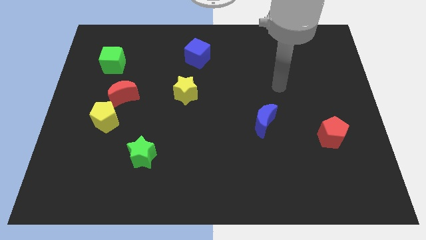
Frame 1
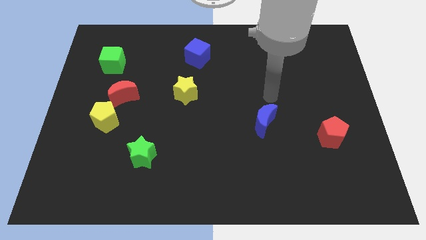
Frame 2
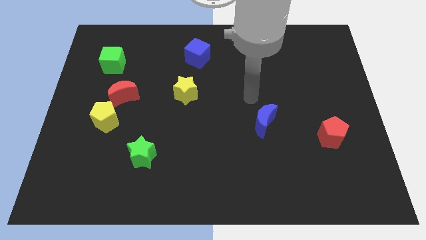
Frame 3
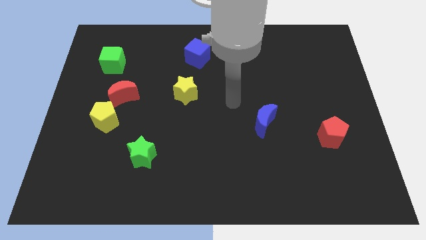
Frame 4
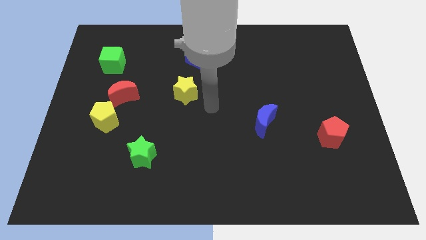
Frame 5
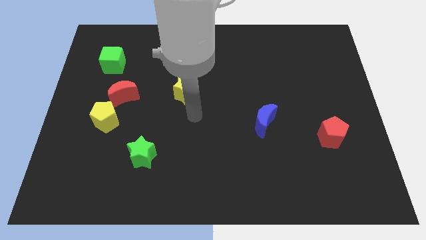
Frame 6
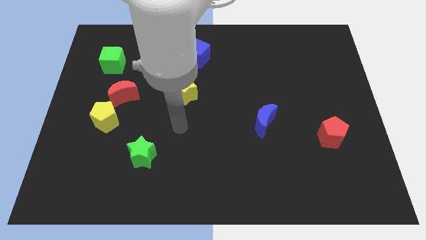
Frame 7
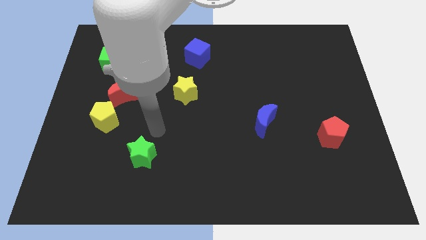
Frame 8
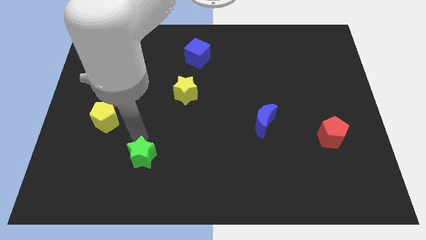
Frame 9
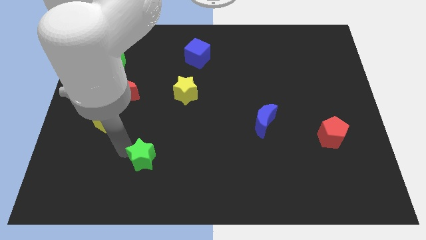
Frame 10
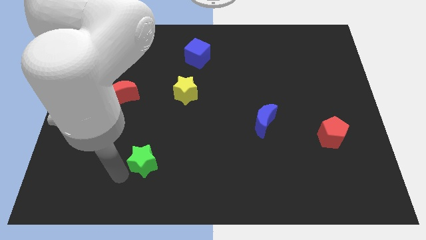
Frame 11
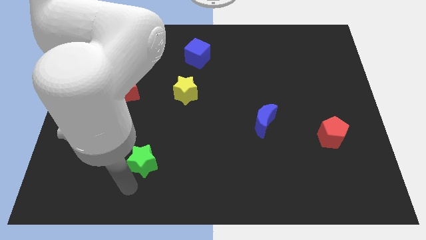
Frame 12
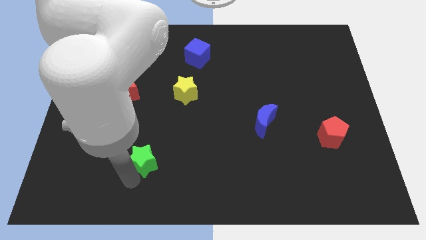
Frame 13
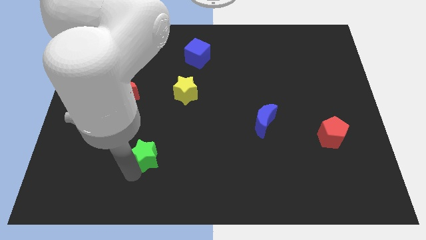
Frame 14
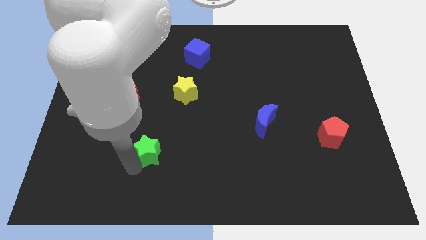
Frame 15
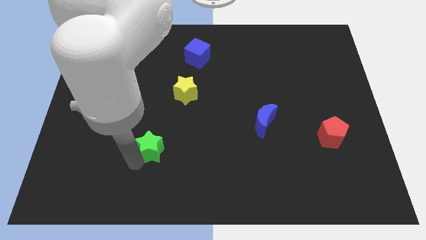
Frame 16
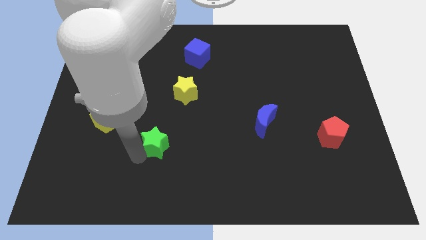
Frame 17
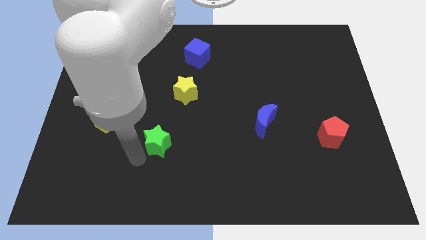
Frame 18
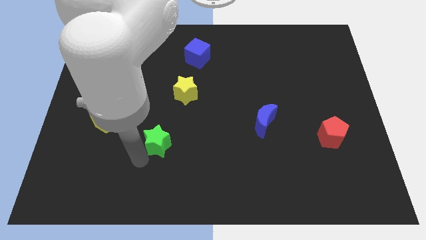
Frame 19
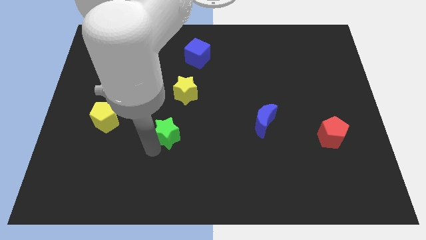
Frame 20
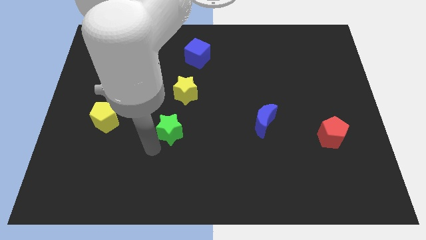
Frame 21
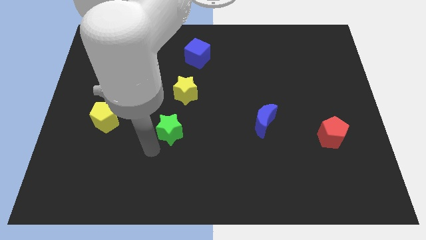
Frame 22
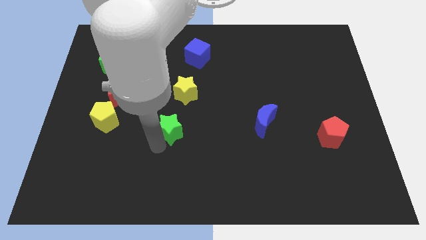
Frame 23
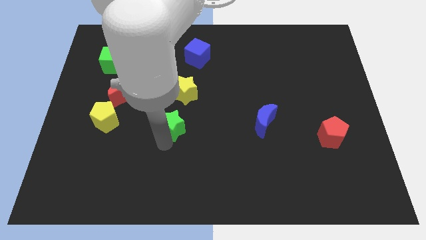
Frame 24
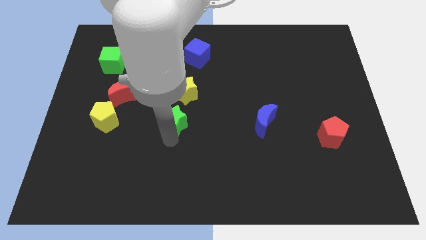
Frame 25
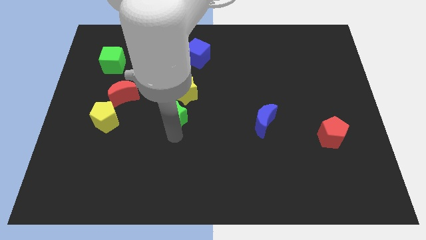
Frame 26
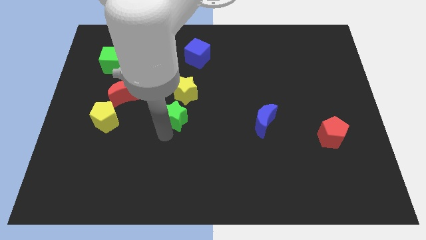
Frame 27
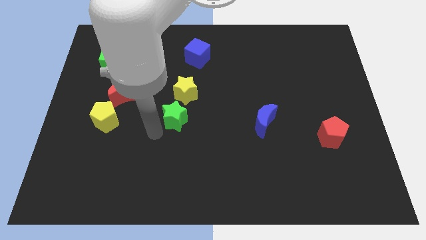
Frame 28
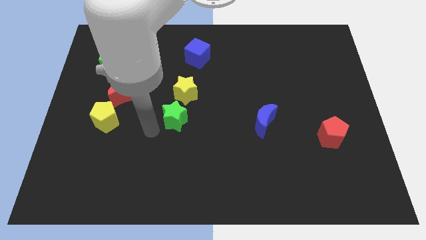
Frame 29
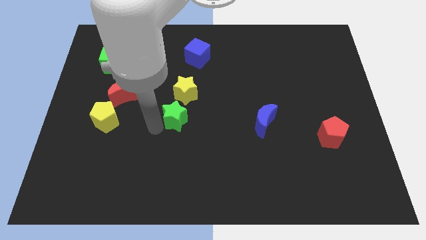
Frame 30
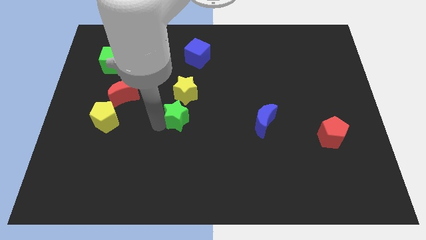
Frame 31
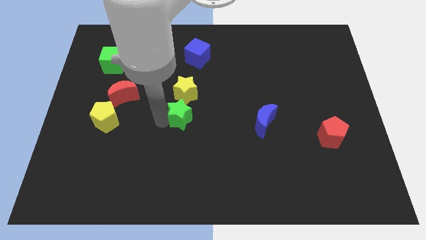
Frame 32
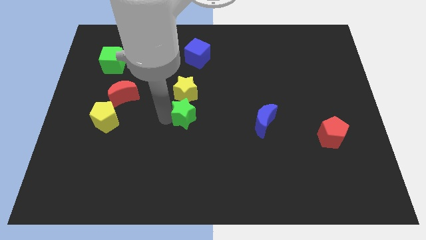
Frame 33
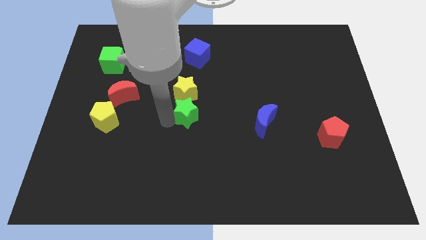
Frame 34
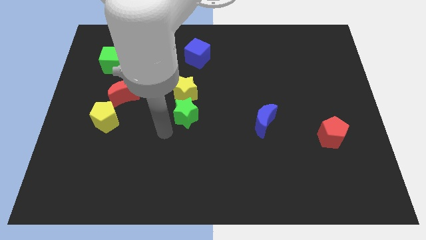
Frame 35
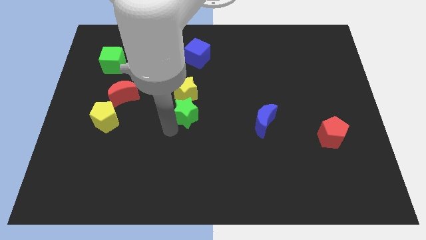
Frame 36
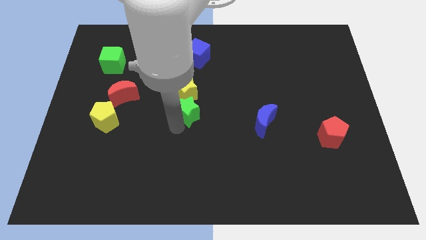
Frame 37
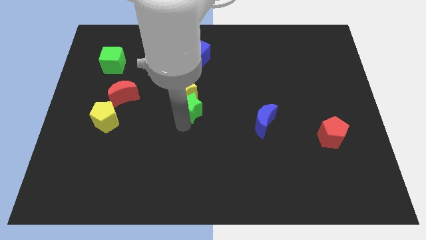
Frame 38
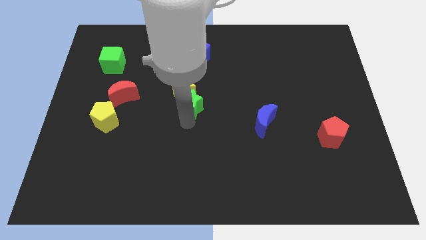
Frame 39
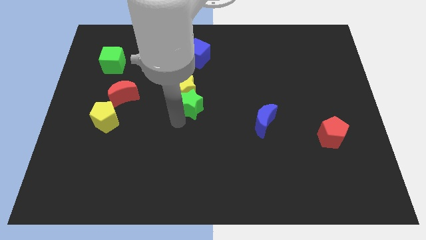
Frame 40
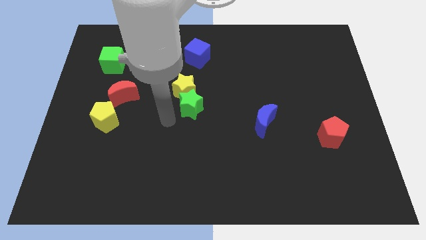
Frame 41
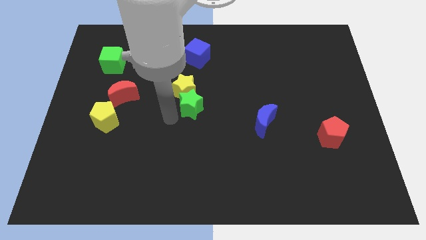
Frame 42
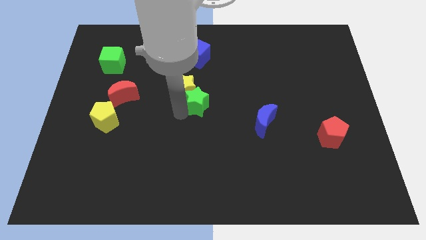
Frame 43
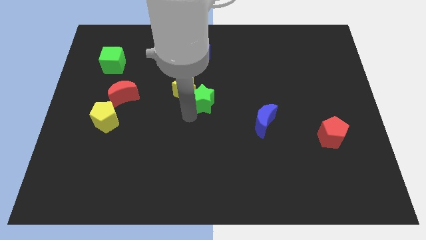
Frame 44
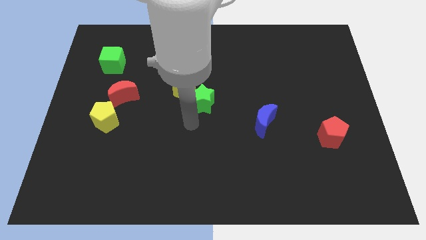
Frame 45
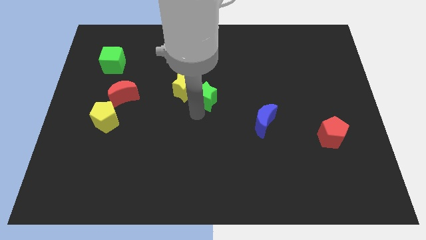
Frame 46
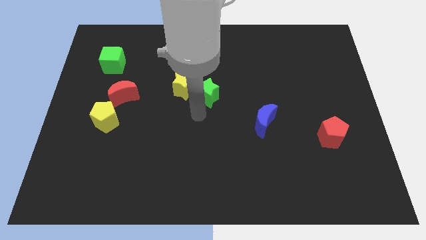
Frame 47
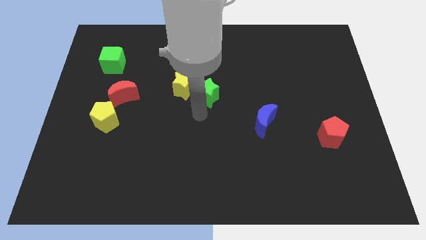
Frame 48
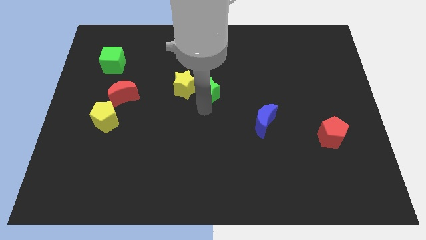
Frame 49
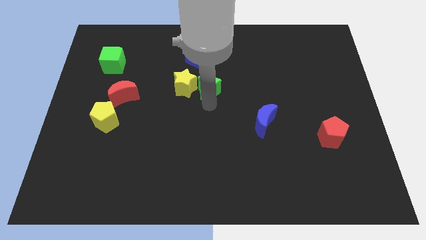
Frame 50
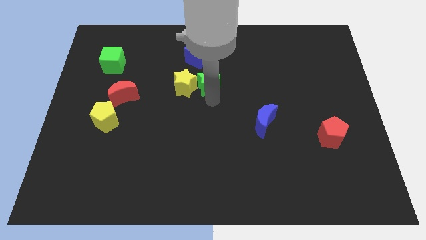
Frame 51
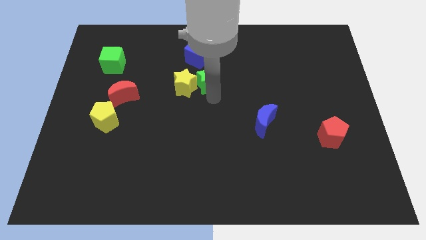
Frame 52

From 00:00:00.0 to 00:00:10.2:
push the green star to the bottom right side of the blue cube

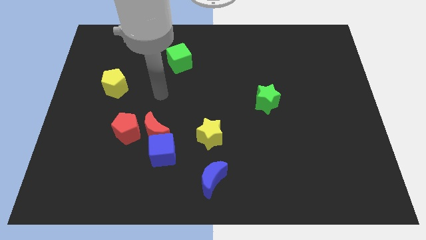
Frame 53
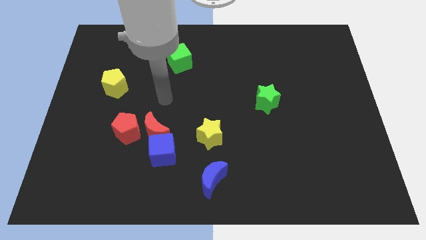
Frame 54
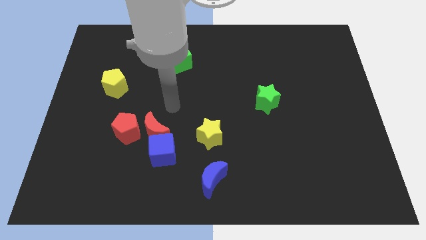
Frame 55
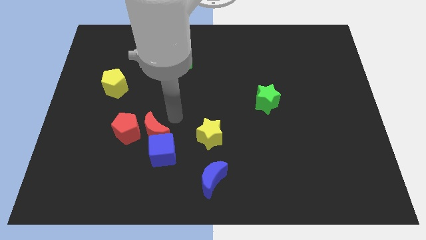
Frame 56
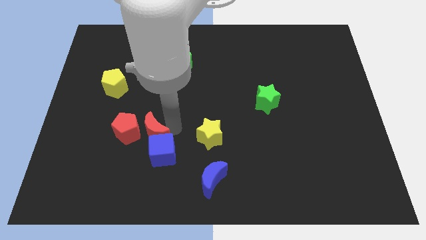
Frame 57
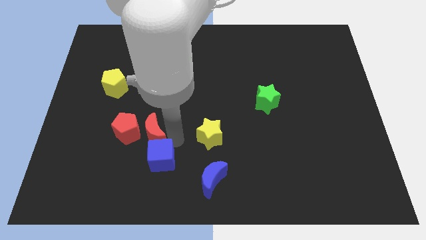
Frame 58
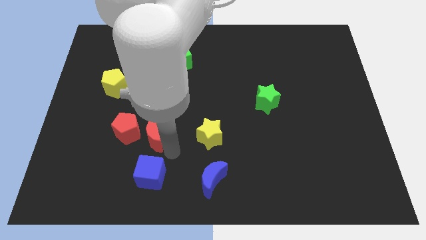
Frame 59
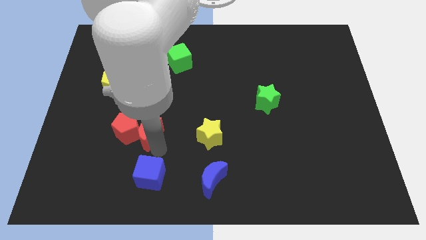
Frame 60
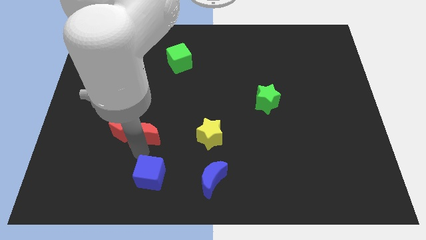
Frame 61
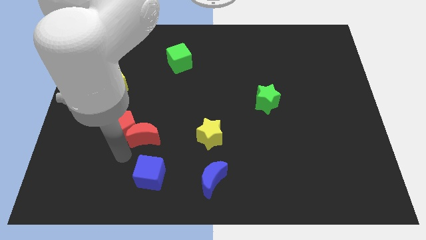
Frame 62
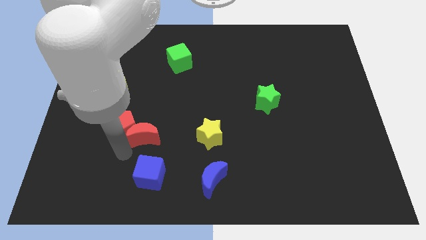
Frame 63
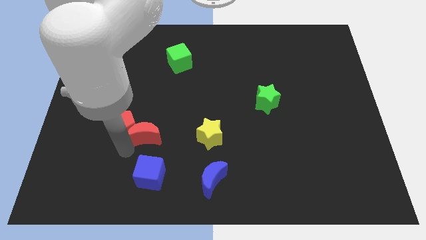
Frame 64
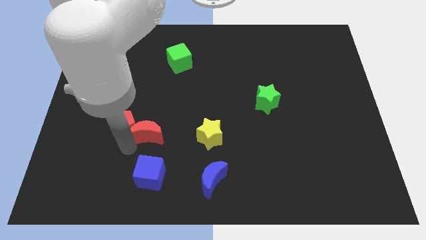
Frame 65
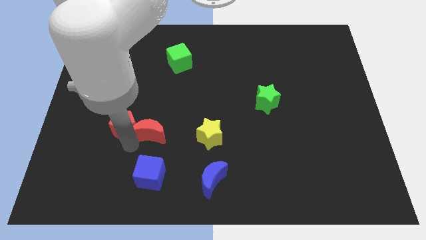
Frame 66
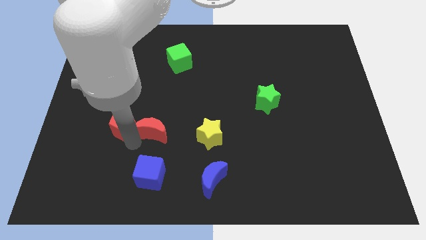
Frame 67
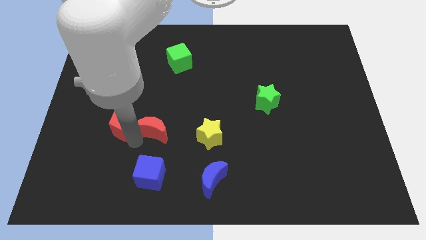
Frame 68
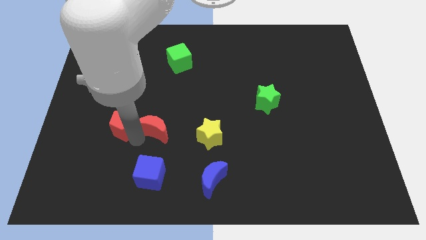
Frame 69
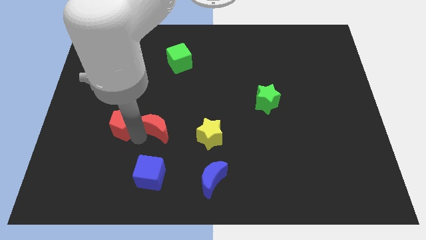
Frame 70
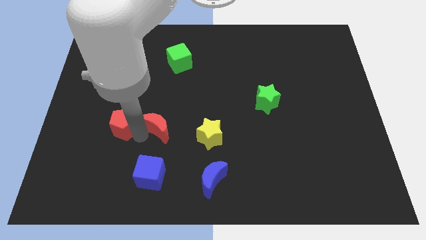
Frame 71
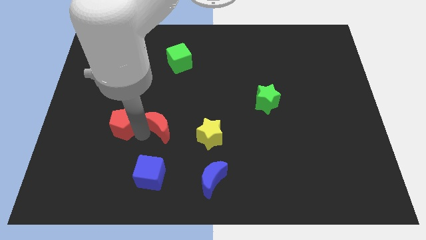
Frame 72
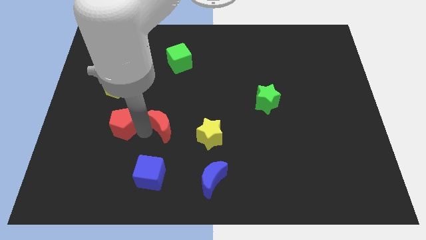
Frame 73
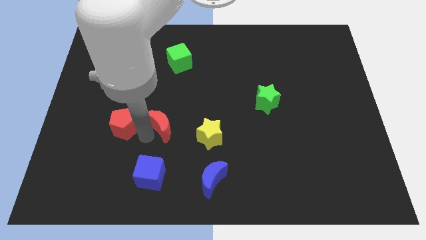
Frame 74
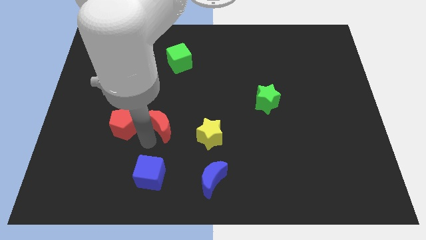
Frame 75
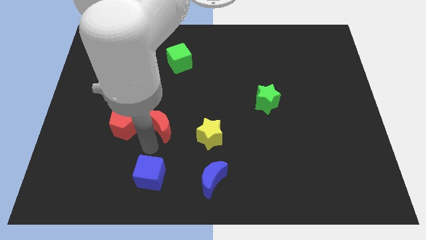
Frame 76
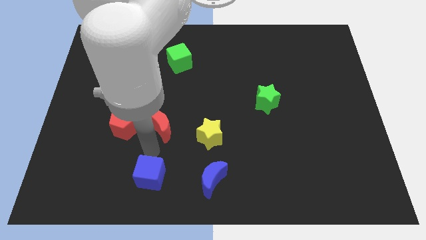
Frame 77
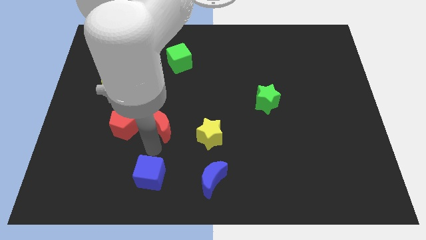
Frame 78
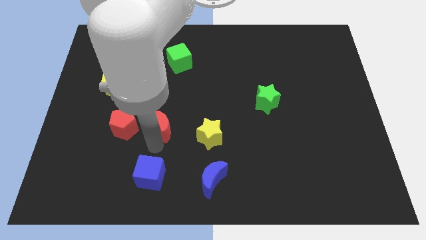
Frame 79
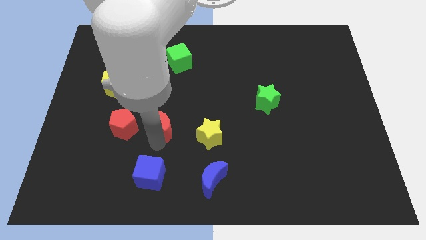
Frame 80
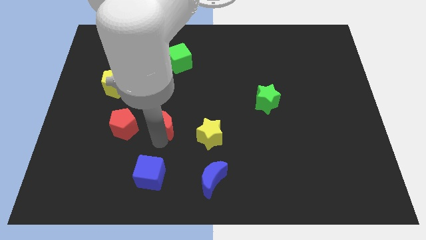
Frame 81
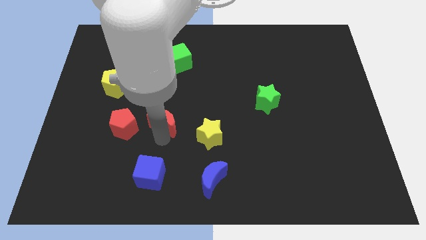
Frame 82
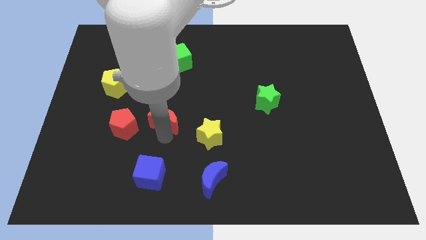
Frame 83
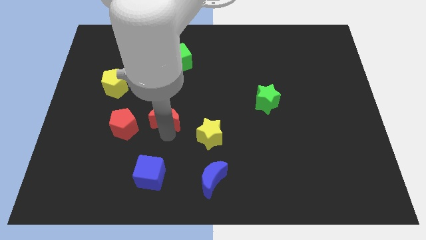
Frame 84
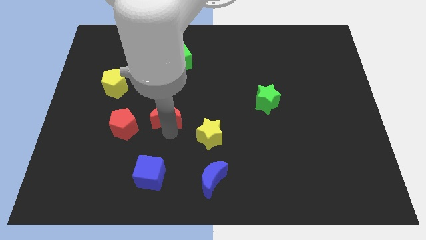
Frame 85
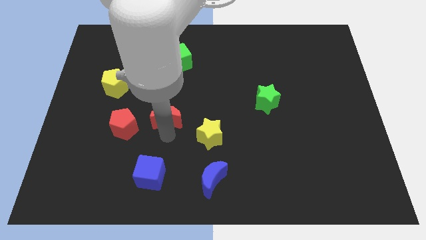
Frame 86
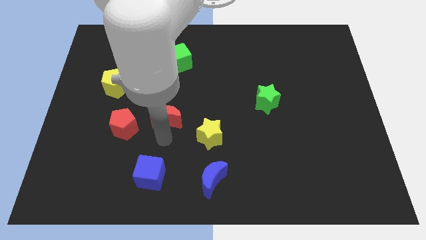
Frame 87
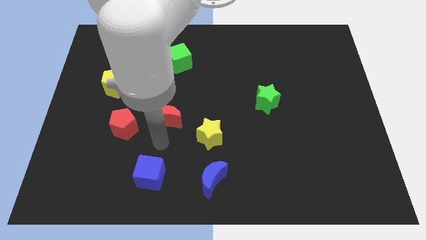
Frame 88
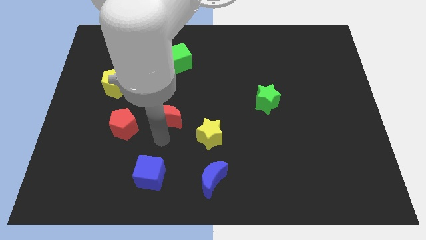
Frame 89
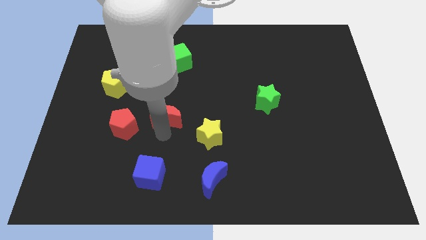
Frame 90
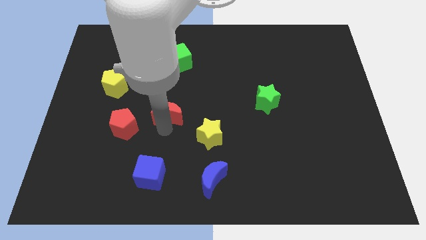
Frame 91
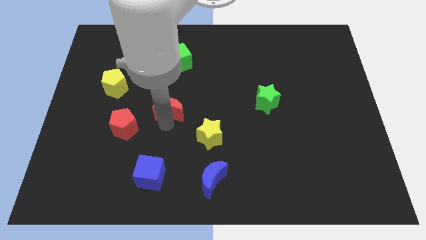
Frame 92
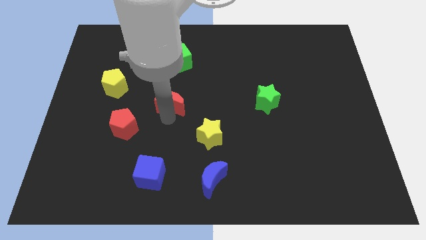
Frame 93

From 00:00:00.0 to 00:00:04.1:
slide the red moon to the bottom side of the green cube
